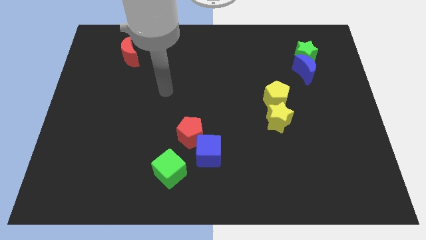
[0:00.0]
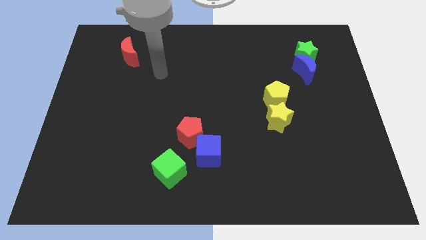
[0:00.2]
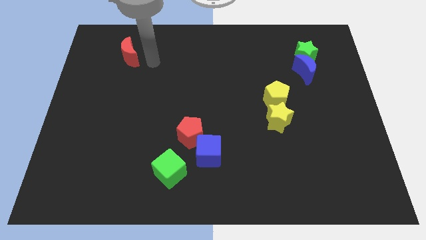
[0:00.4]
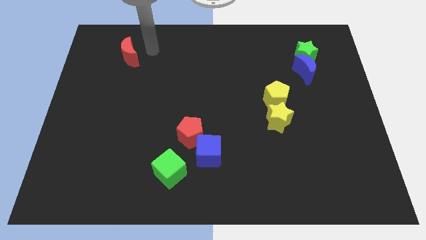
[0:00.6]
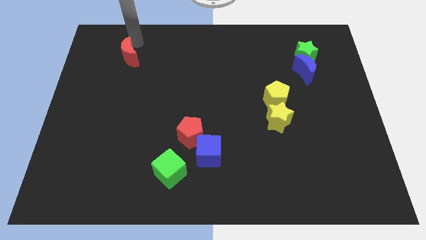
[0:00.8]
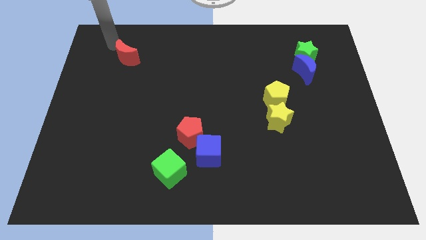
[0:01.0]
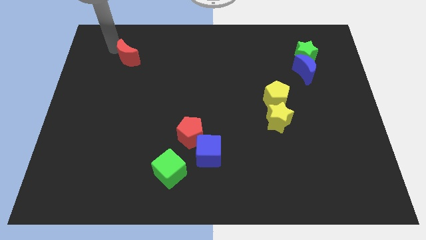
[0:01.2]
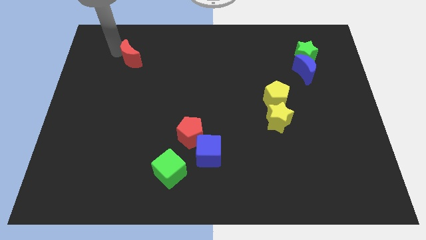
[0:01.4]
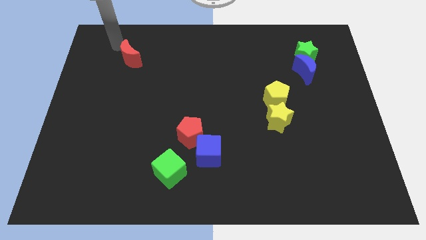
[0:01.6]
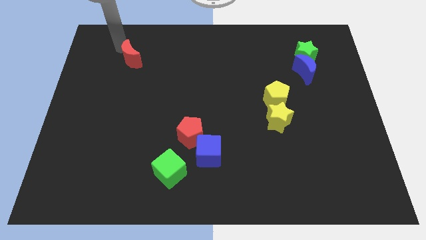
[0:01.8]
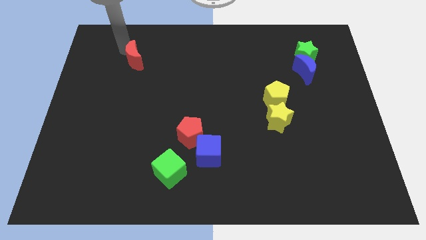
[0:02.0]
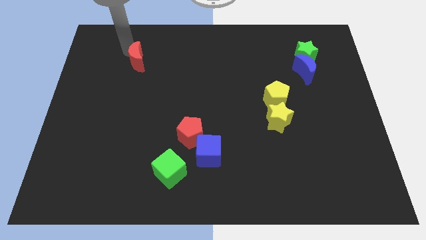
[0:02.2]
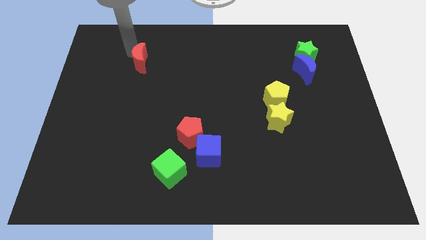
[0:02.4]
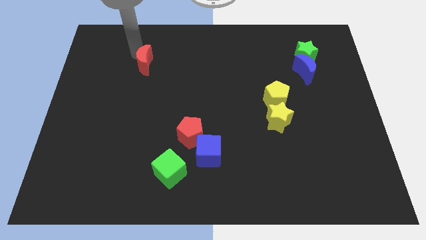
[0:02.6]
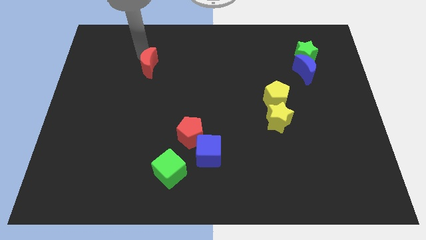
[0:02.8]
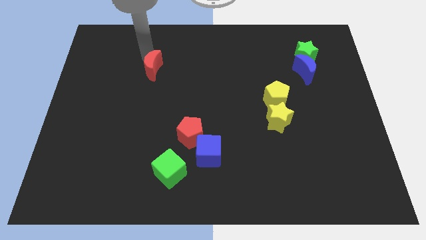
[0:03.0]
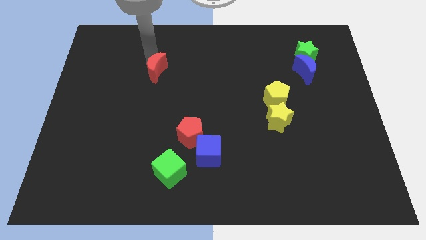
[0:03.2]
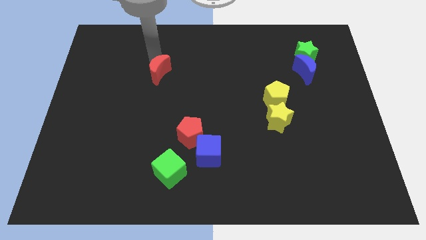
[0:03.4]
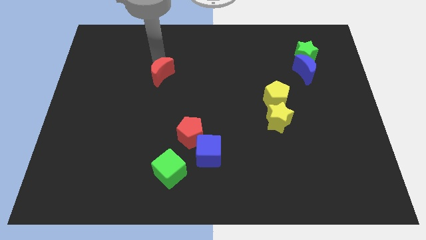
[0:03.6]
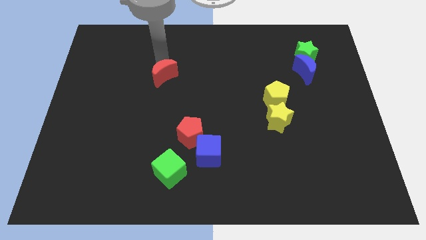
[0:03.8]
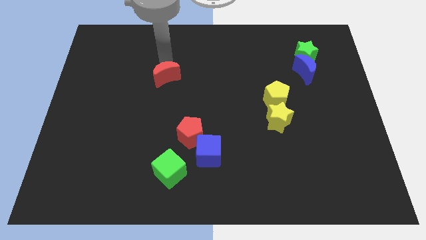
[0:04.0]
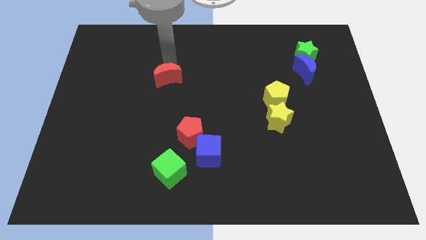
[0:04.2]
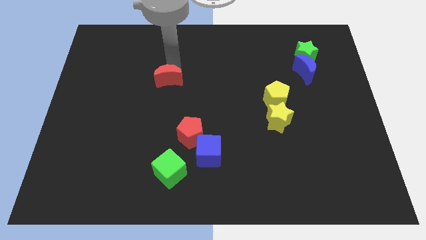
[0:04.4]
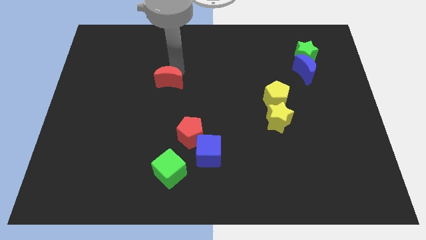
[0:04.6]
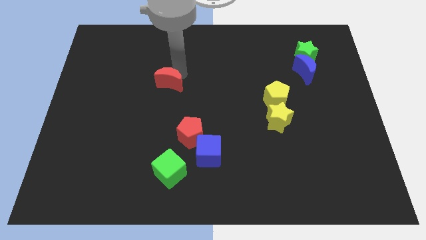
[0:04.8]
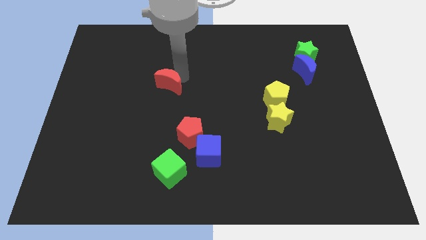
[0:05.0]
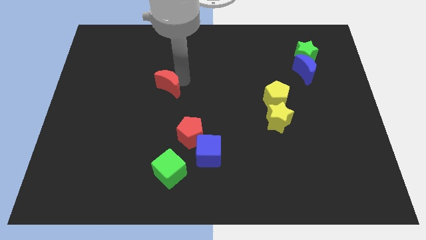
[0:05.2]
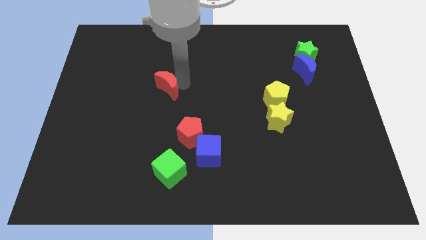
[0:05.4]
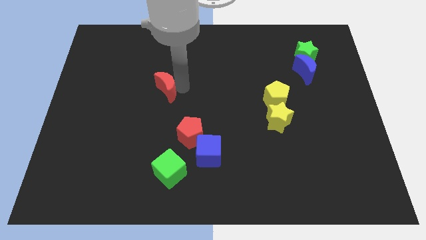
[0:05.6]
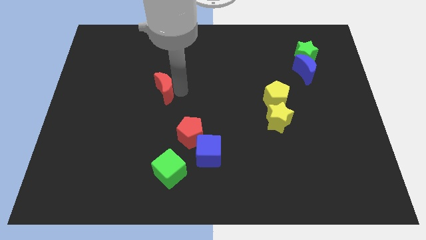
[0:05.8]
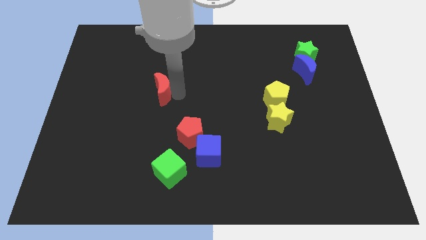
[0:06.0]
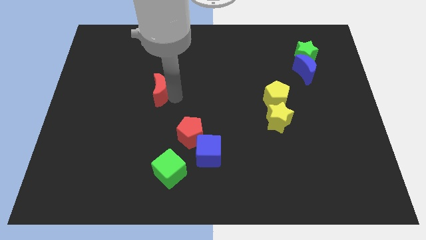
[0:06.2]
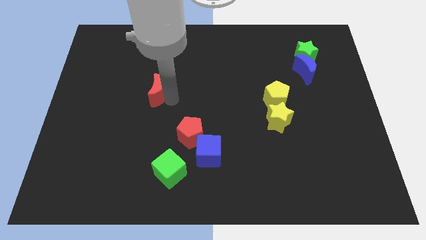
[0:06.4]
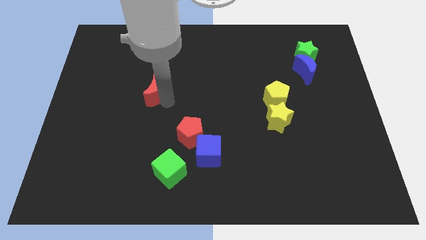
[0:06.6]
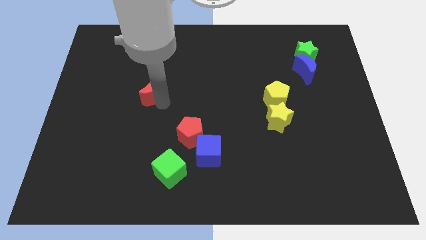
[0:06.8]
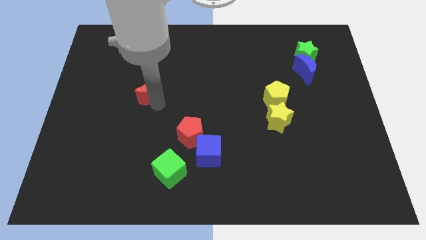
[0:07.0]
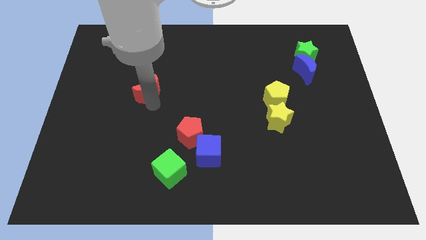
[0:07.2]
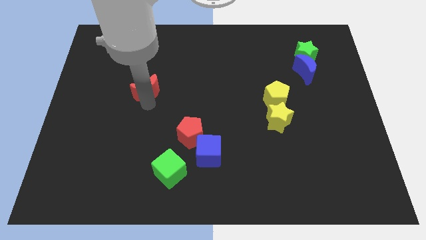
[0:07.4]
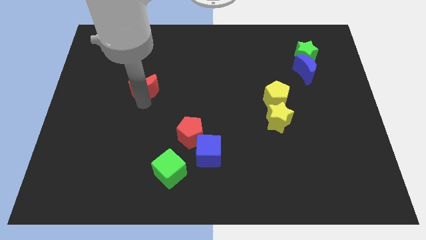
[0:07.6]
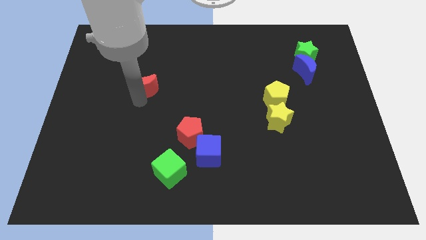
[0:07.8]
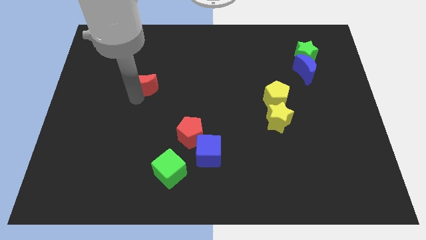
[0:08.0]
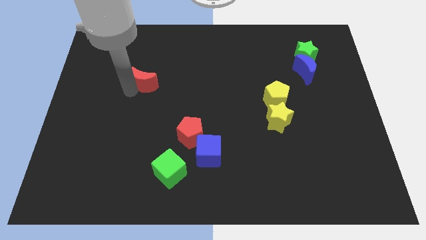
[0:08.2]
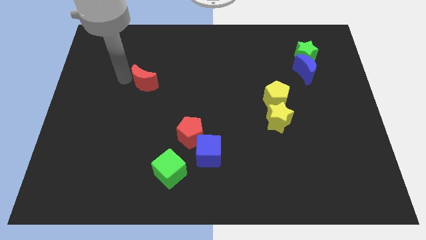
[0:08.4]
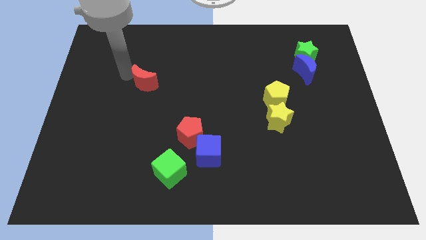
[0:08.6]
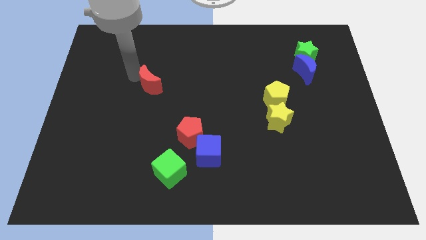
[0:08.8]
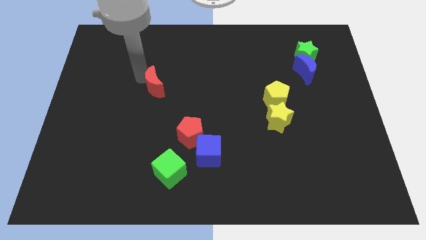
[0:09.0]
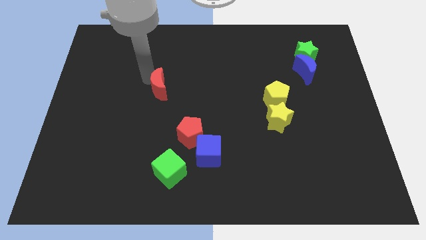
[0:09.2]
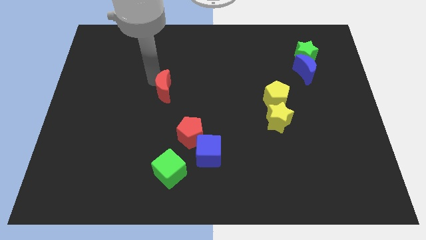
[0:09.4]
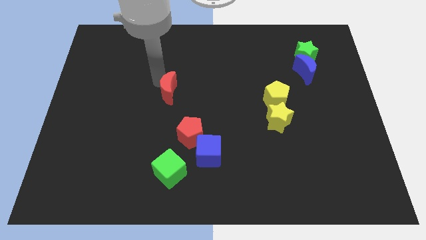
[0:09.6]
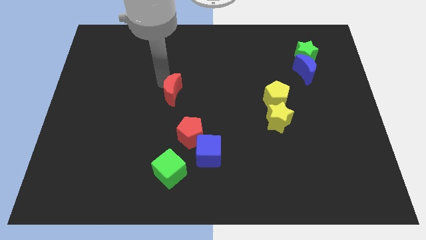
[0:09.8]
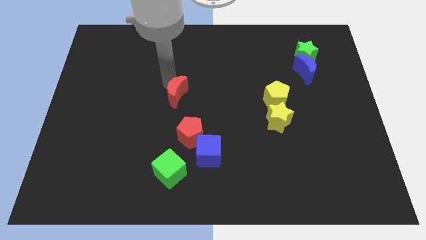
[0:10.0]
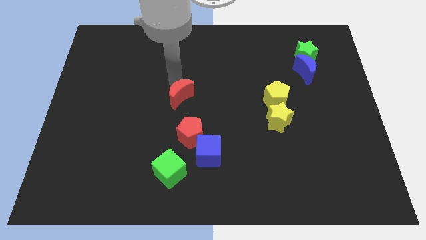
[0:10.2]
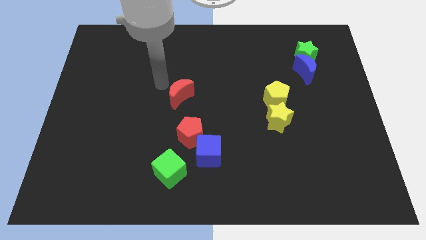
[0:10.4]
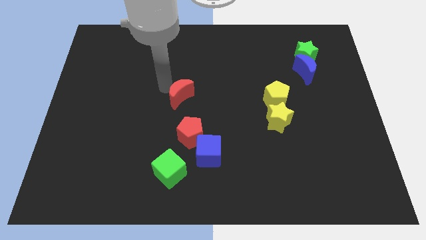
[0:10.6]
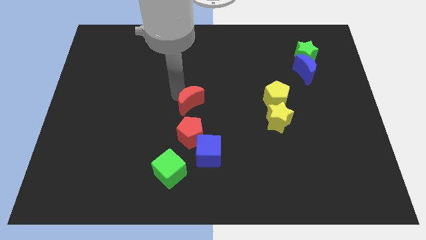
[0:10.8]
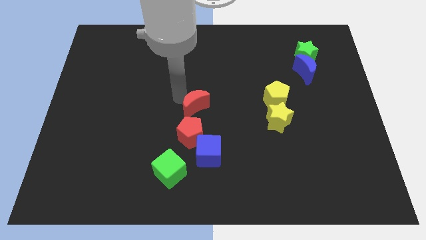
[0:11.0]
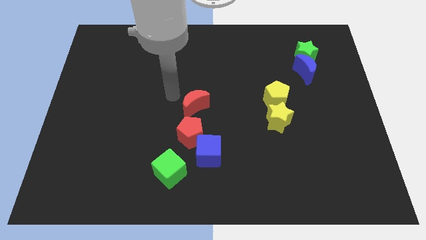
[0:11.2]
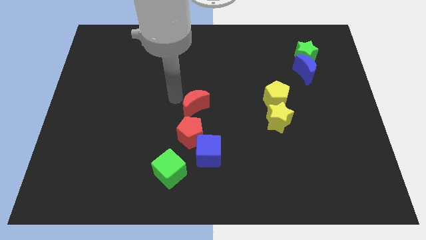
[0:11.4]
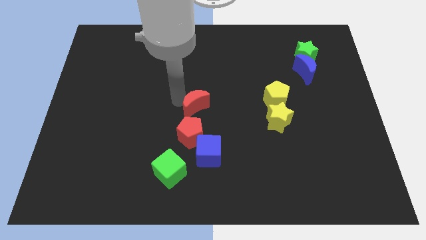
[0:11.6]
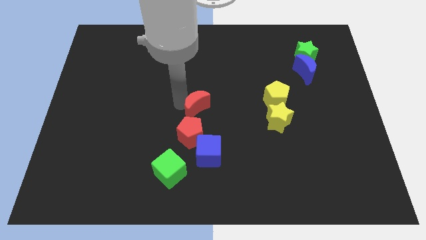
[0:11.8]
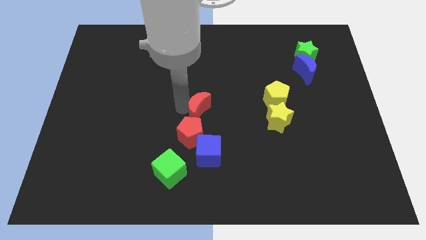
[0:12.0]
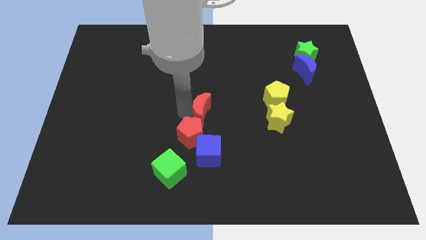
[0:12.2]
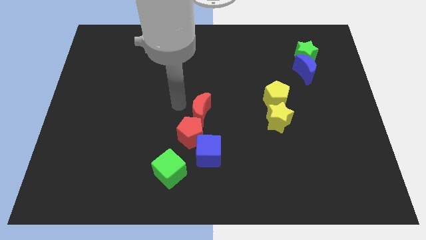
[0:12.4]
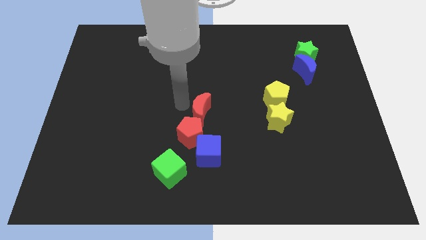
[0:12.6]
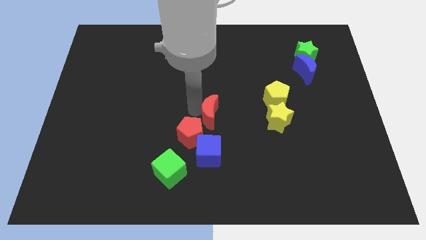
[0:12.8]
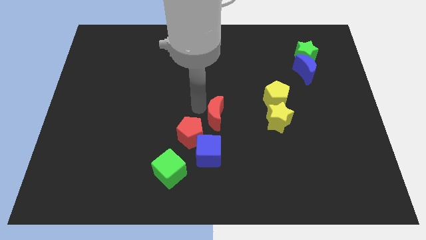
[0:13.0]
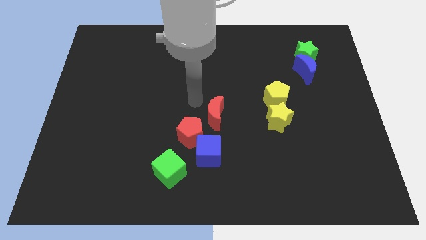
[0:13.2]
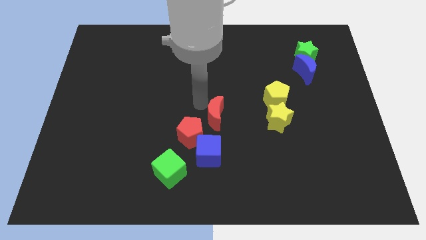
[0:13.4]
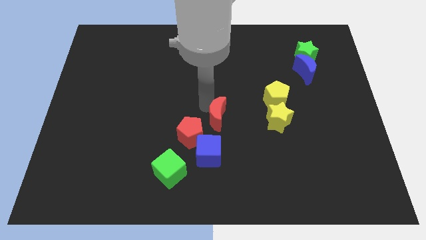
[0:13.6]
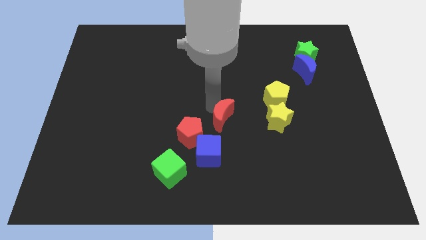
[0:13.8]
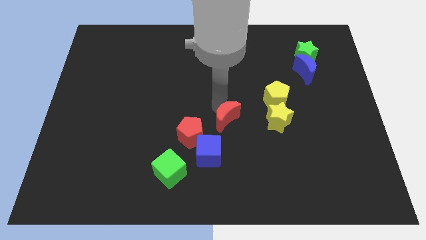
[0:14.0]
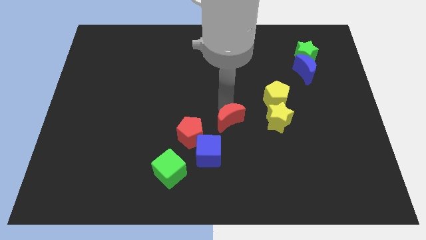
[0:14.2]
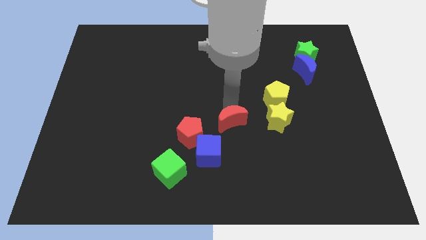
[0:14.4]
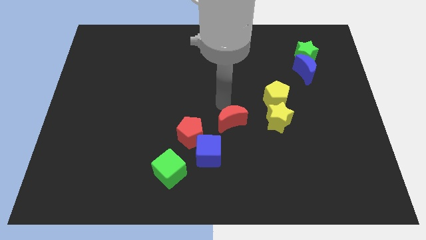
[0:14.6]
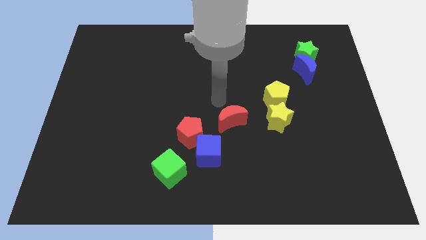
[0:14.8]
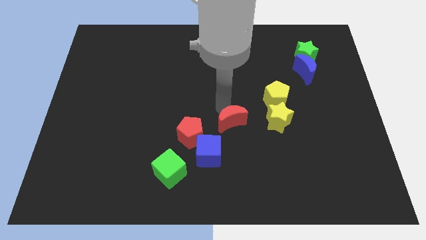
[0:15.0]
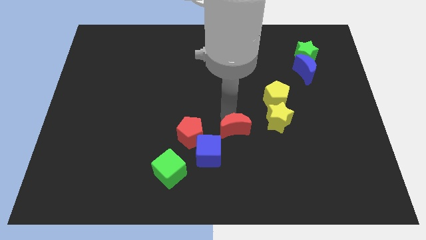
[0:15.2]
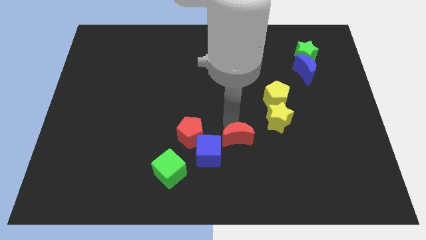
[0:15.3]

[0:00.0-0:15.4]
move the red moon to the right of the blue cube
